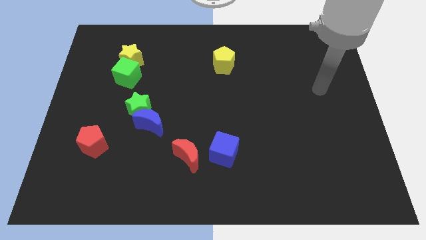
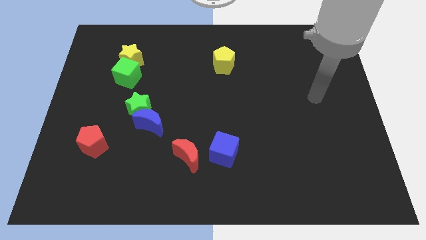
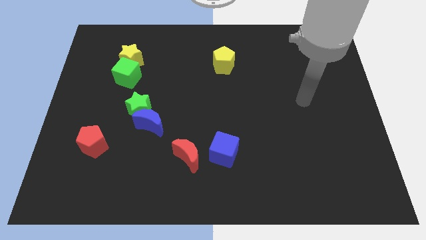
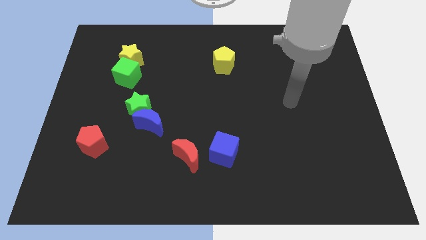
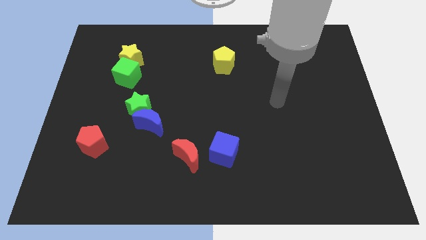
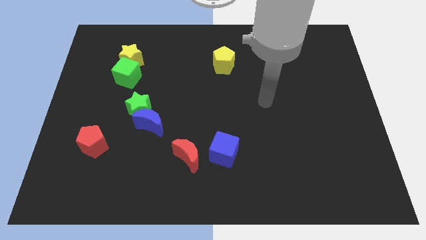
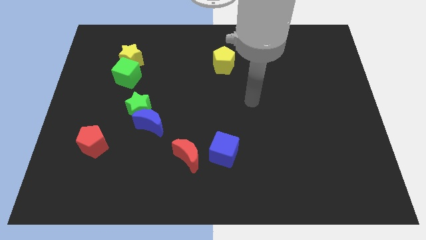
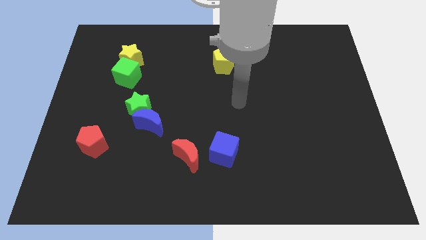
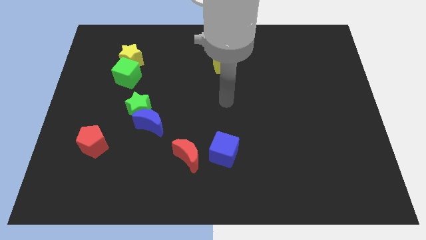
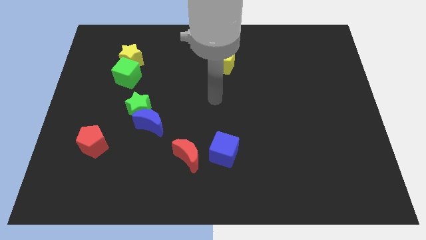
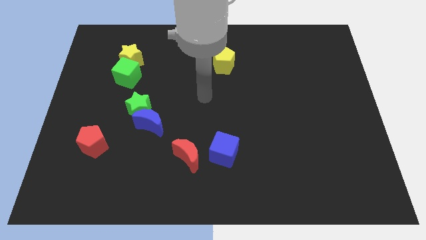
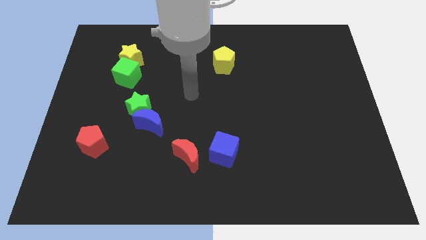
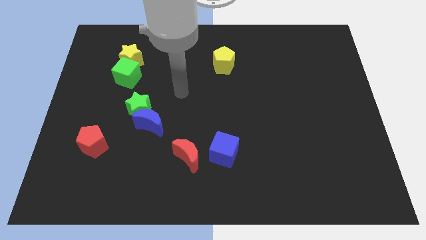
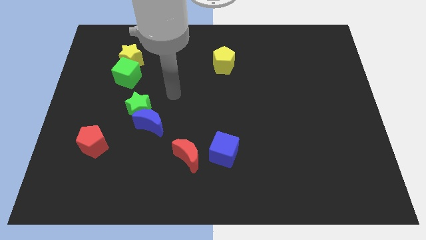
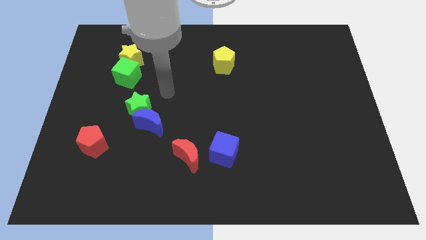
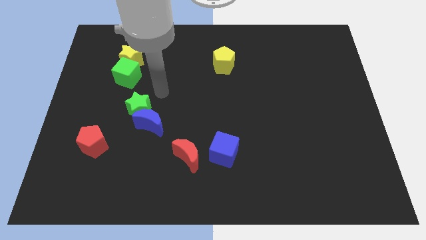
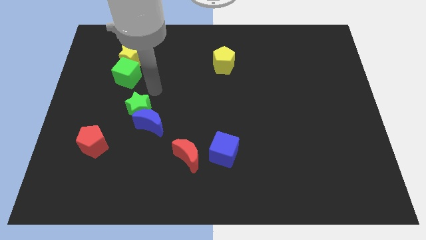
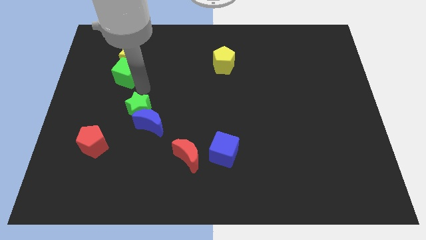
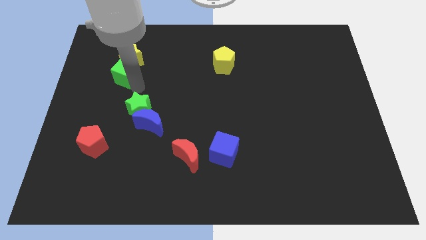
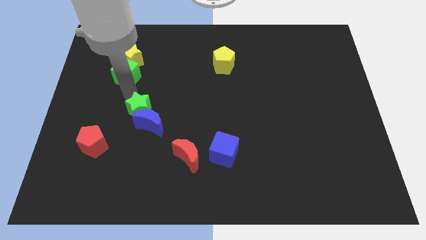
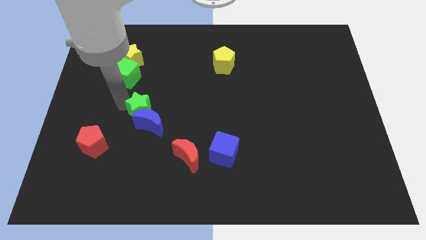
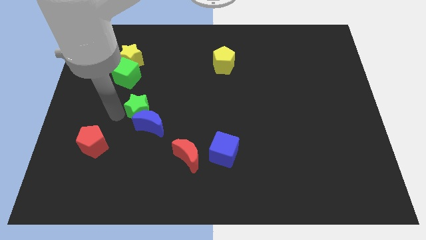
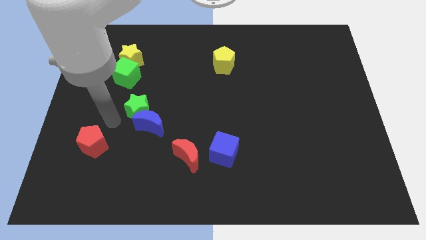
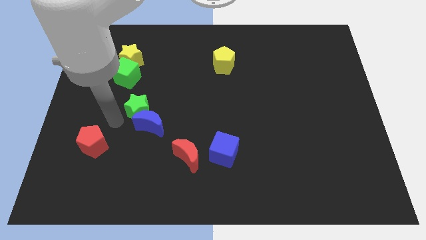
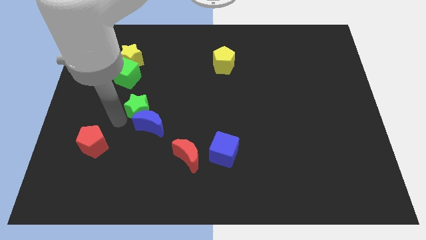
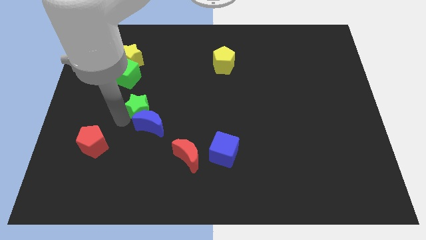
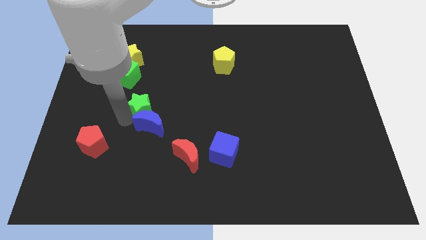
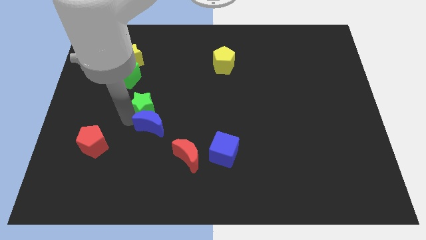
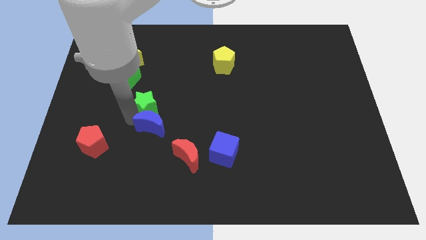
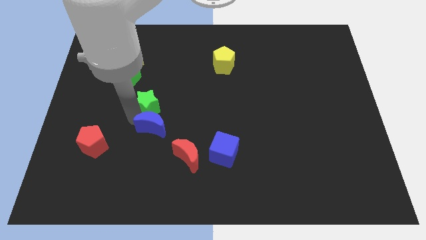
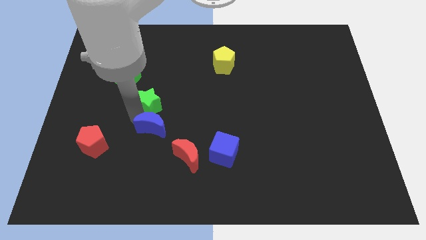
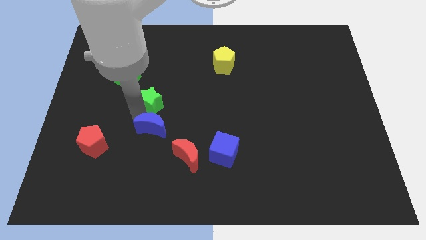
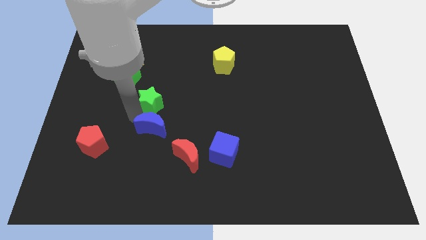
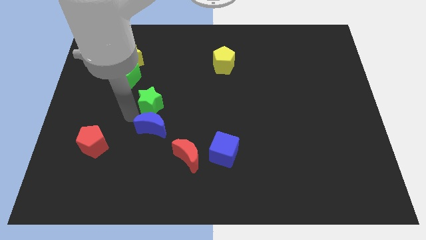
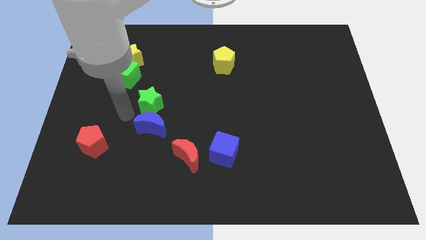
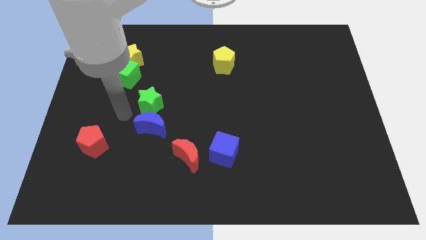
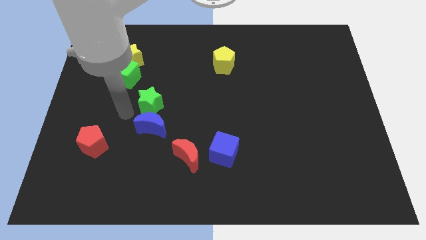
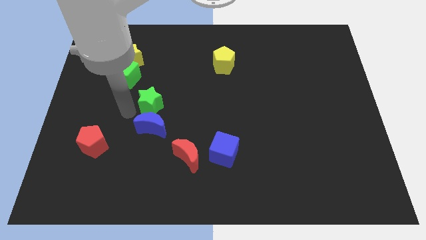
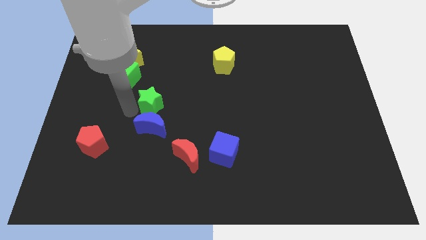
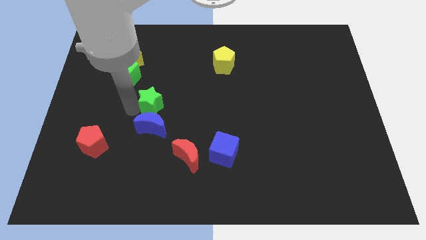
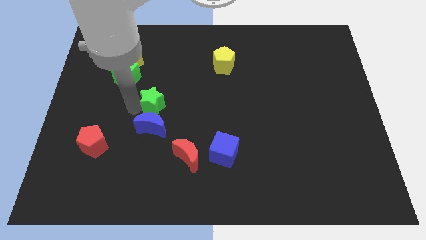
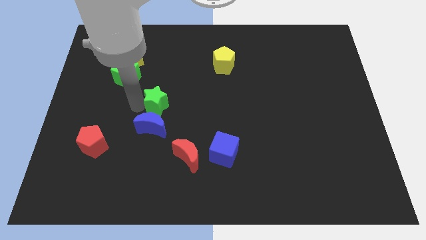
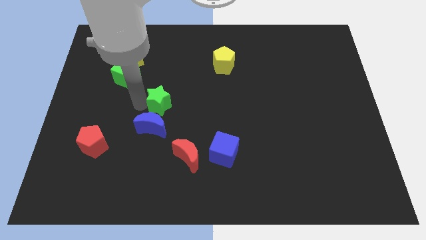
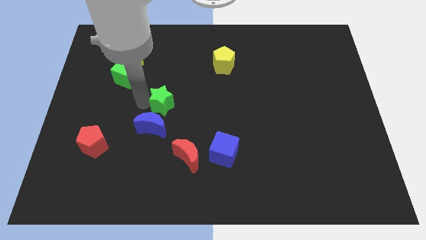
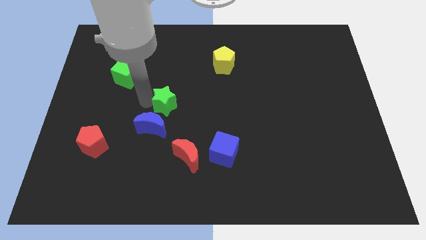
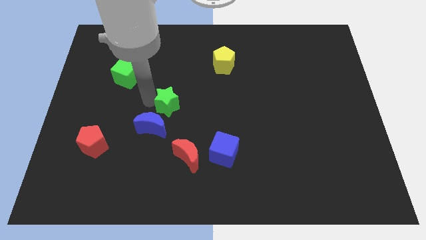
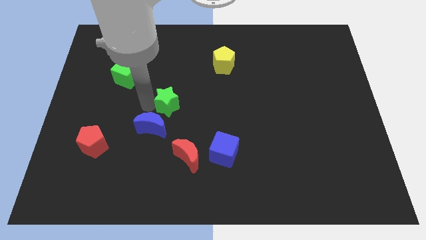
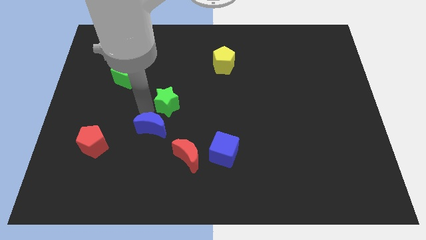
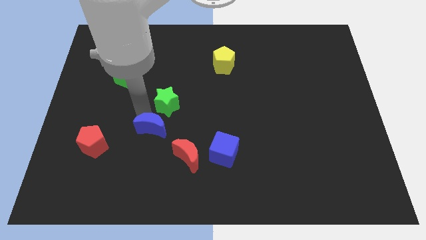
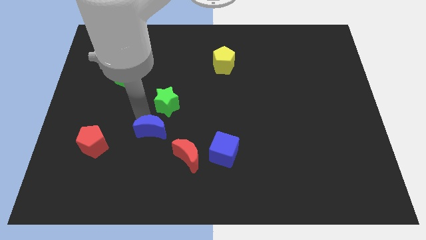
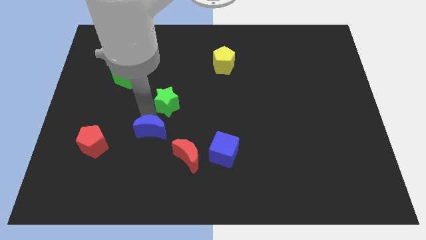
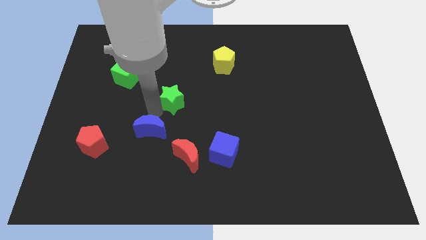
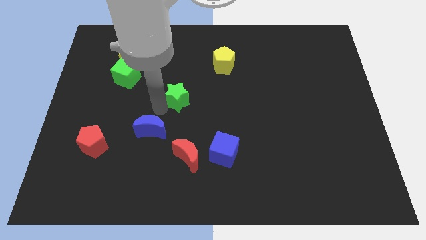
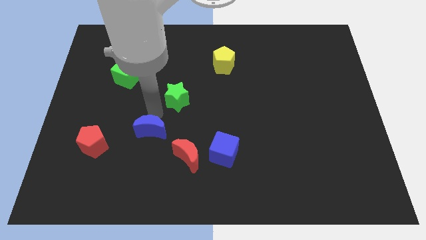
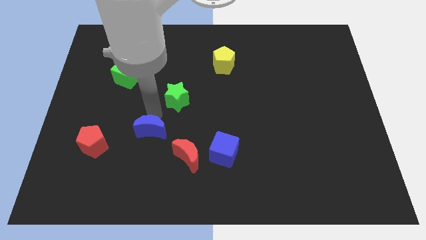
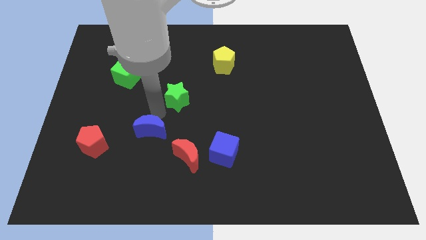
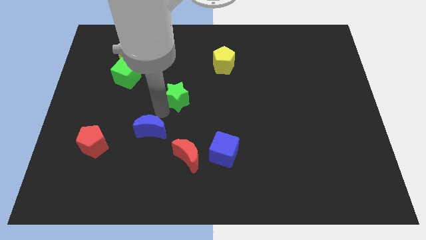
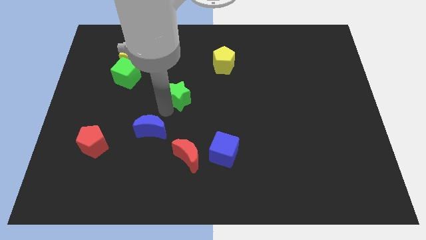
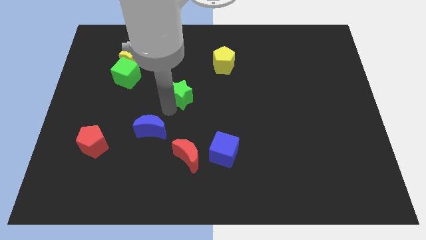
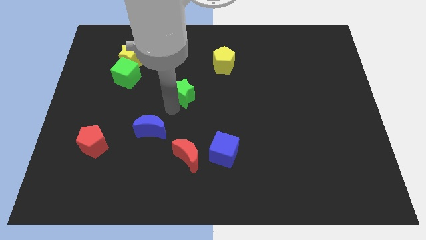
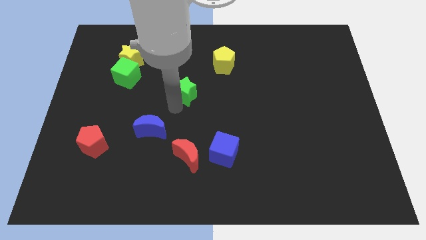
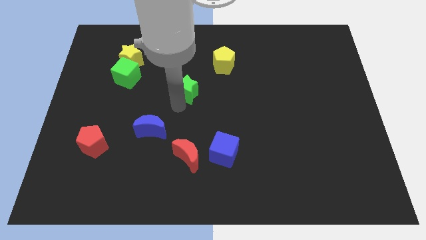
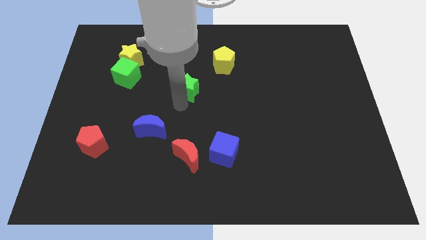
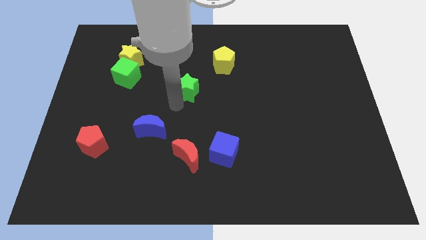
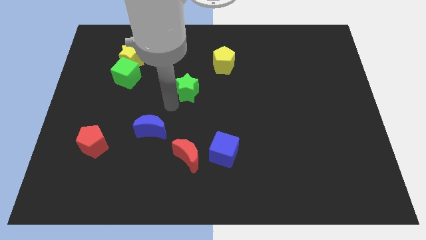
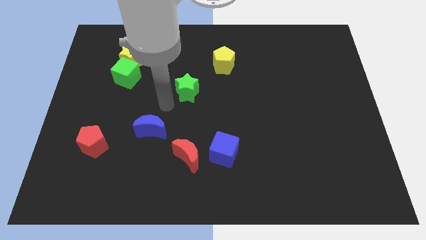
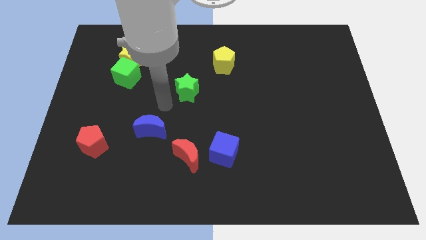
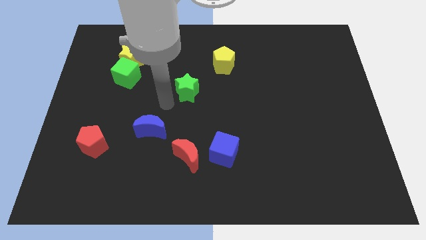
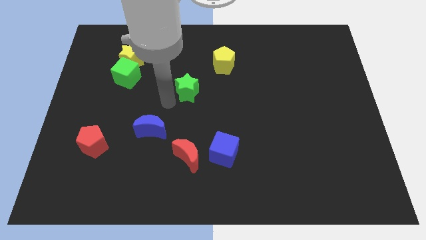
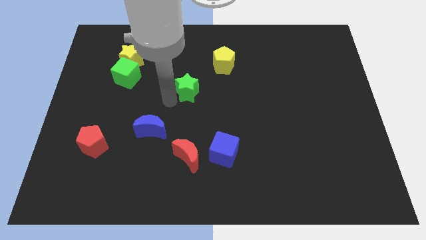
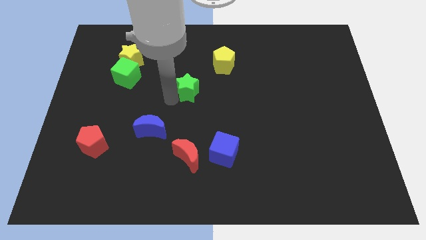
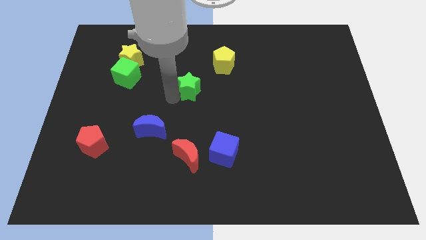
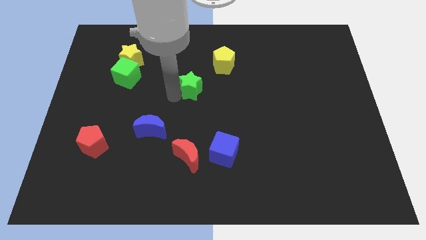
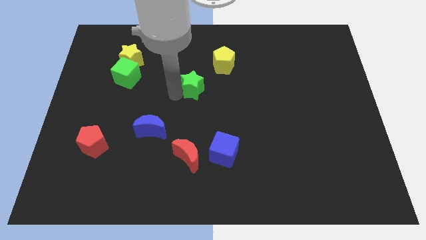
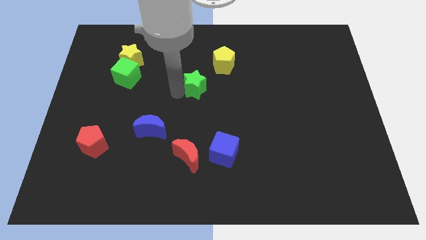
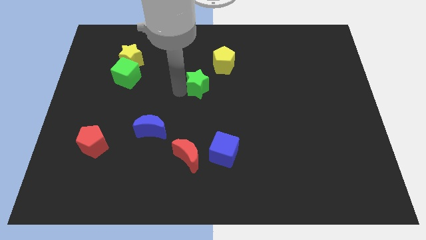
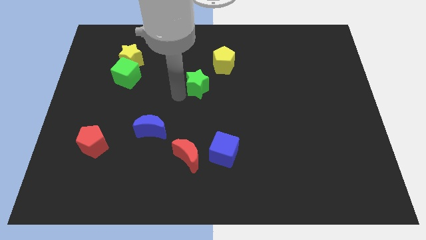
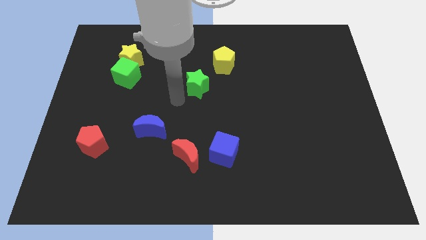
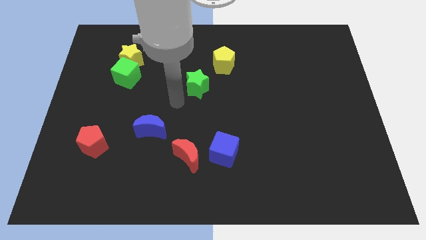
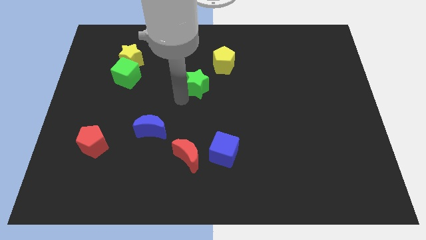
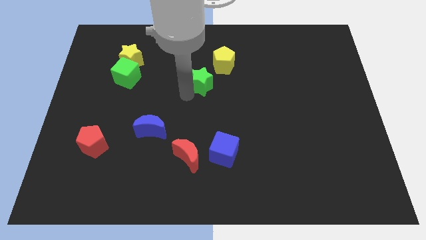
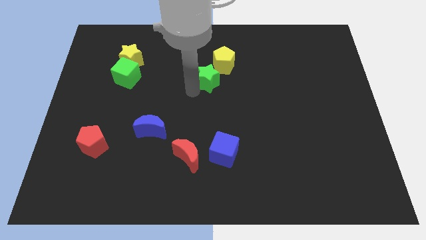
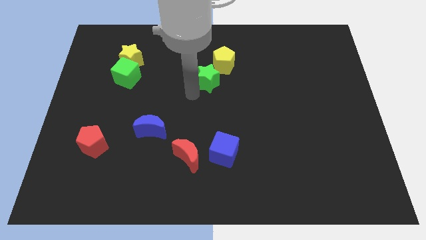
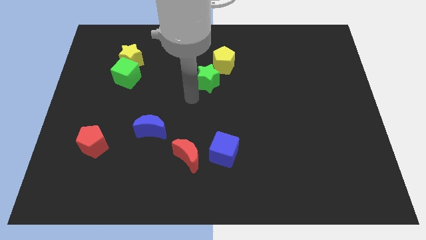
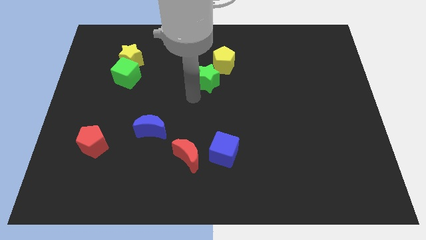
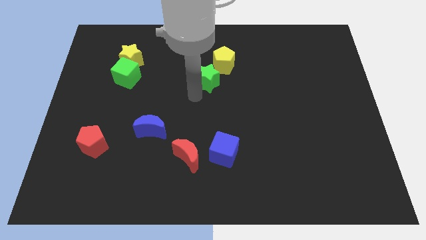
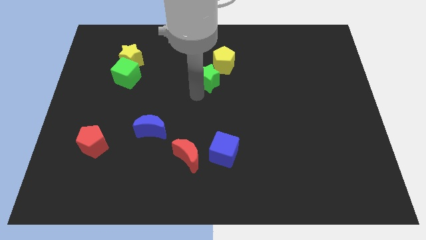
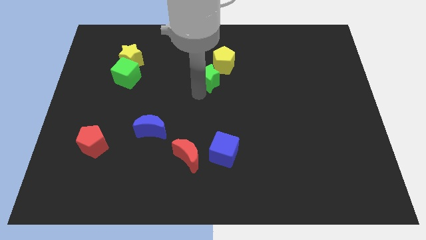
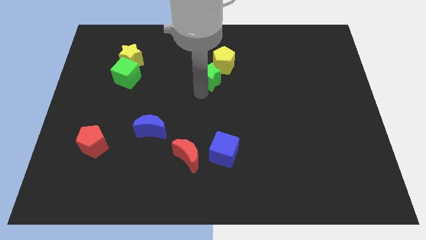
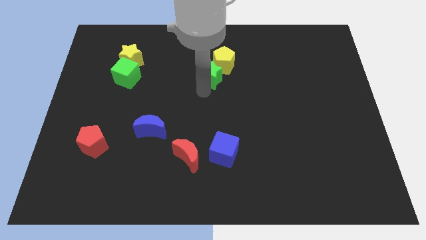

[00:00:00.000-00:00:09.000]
move the green star towards the yellow pentagon
